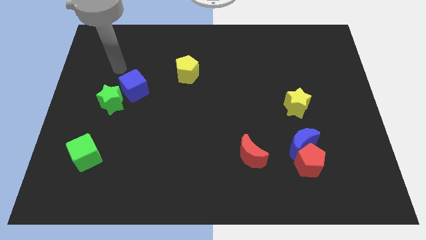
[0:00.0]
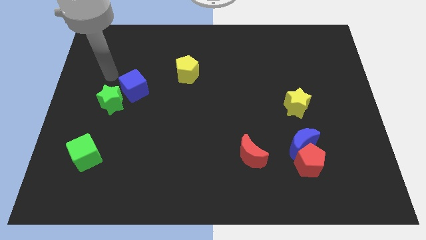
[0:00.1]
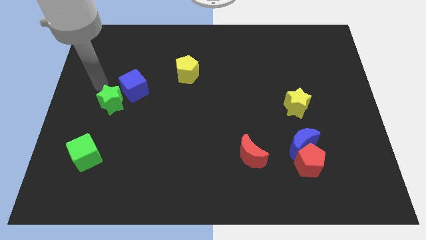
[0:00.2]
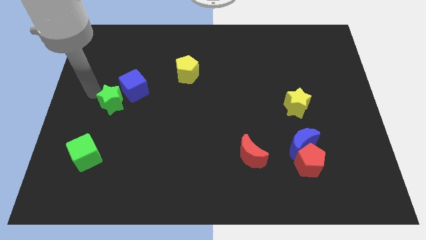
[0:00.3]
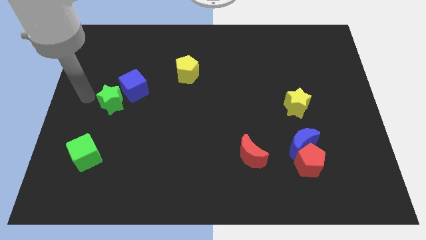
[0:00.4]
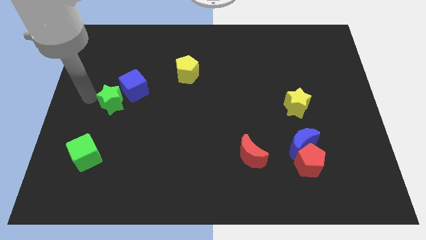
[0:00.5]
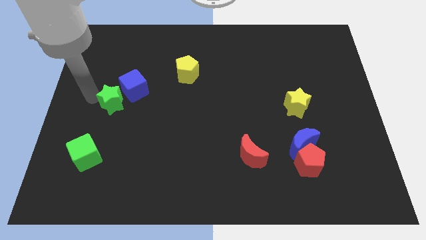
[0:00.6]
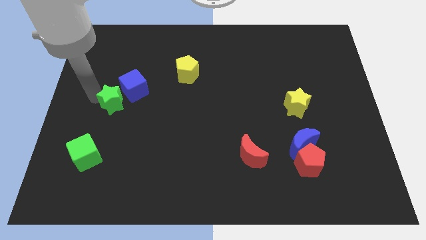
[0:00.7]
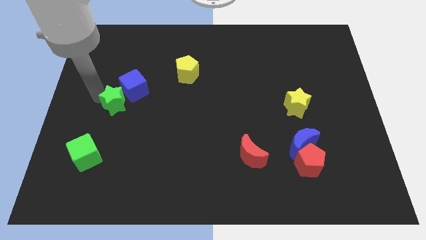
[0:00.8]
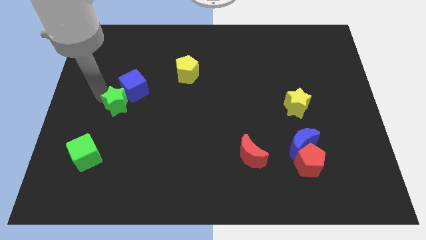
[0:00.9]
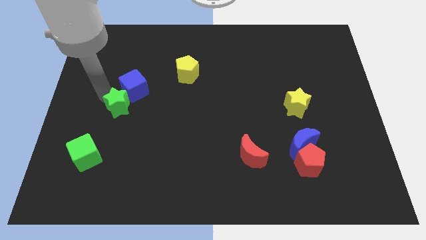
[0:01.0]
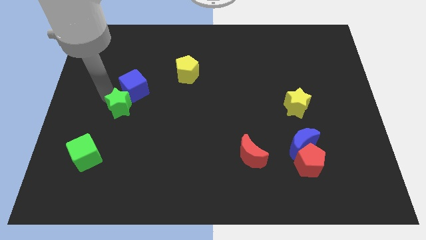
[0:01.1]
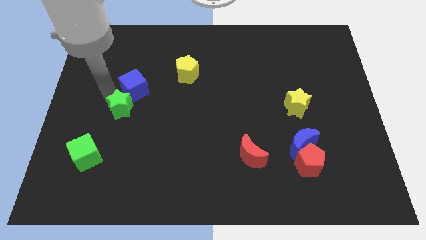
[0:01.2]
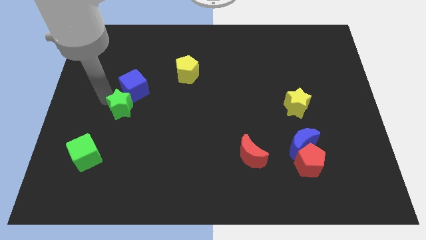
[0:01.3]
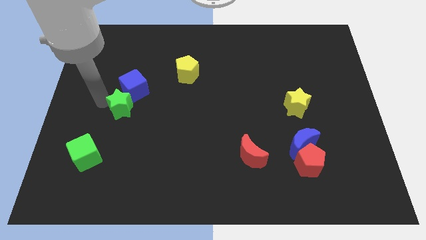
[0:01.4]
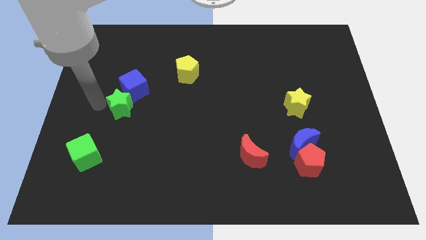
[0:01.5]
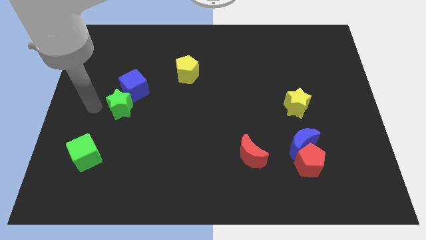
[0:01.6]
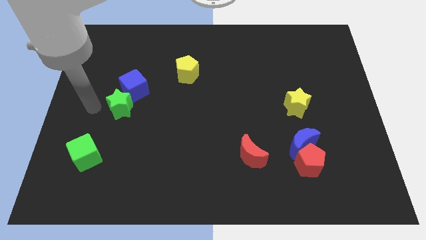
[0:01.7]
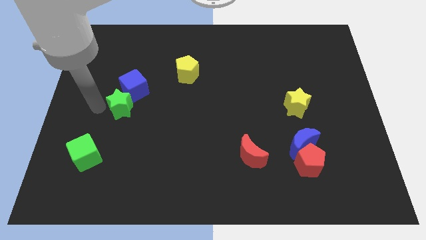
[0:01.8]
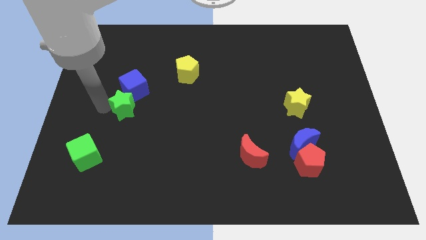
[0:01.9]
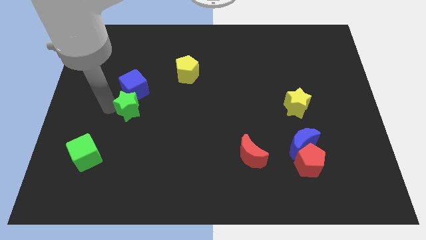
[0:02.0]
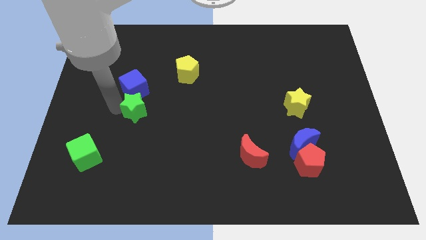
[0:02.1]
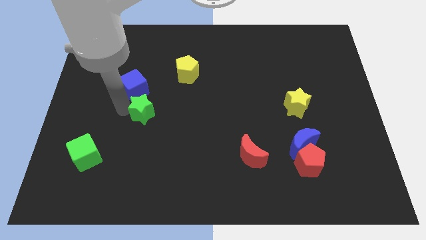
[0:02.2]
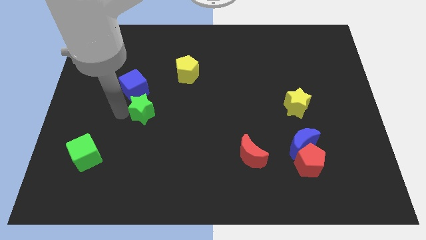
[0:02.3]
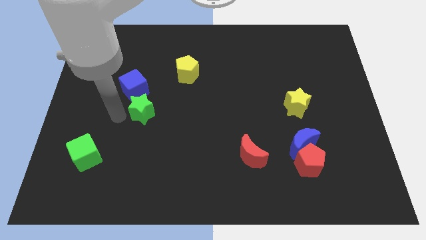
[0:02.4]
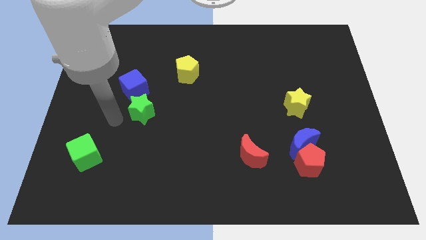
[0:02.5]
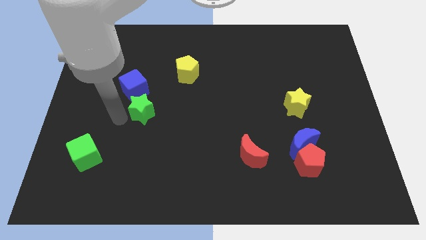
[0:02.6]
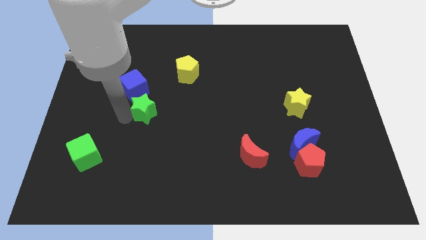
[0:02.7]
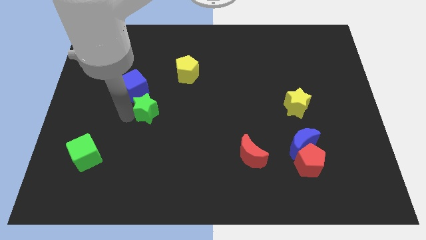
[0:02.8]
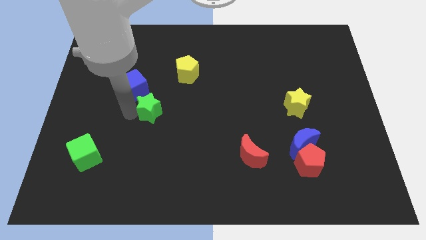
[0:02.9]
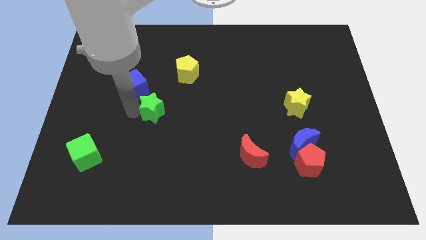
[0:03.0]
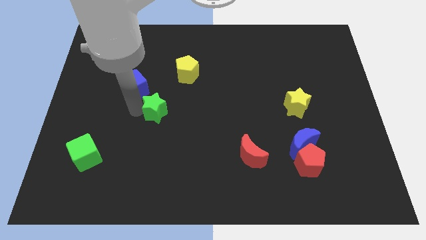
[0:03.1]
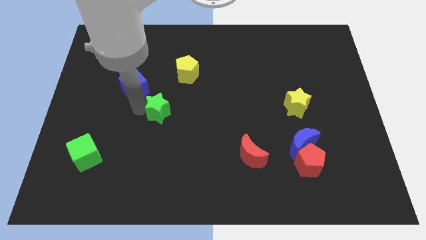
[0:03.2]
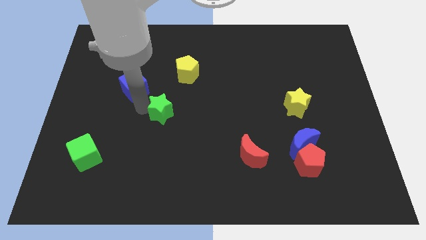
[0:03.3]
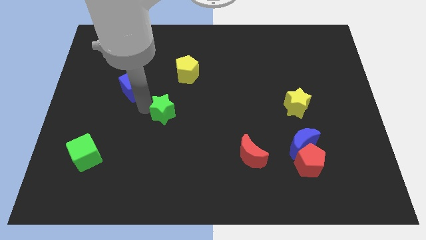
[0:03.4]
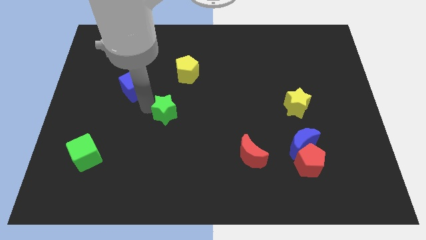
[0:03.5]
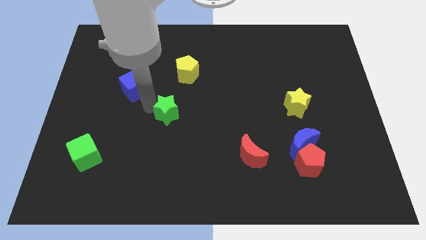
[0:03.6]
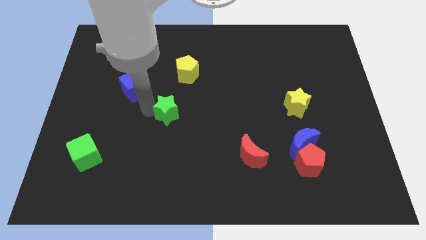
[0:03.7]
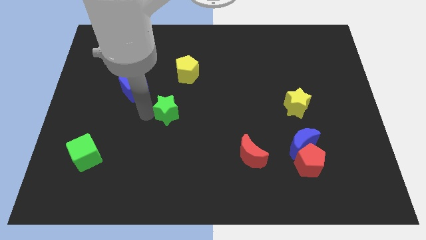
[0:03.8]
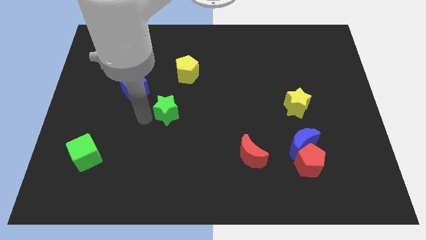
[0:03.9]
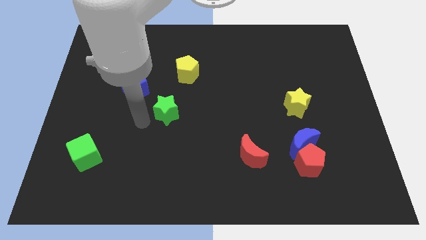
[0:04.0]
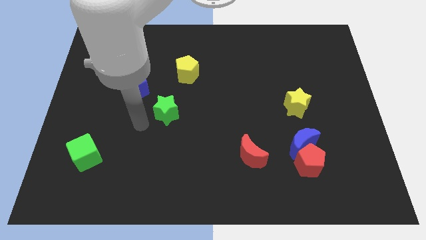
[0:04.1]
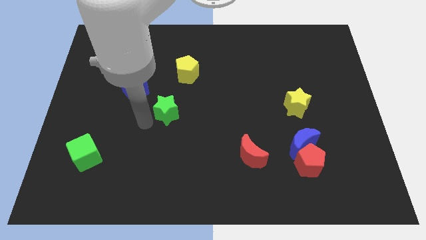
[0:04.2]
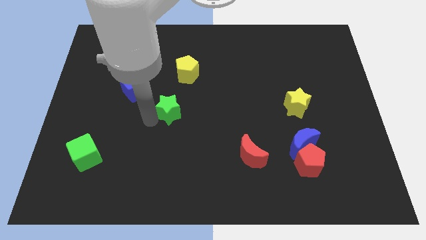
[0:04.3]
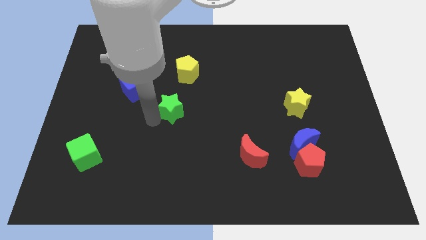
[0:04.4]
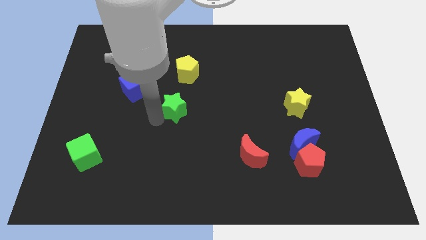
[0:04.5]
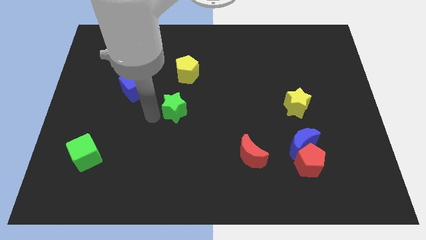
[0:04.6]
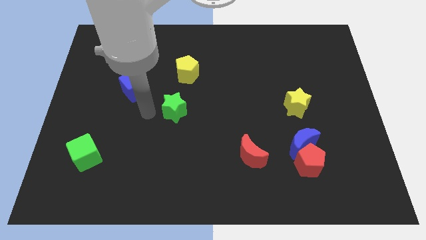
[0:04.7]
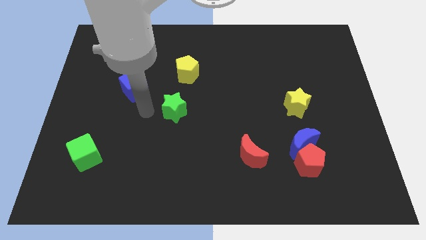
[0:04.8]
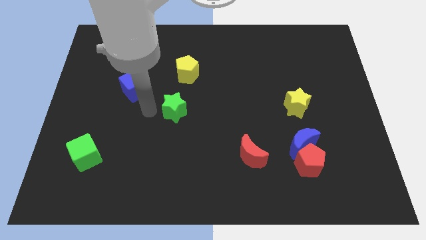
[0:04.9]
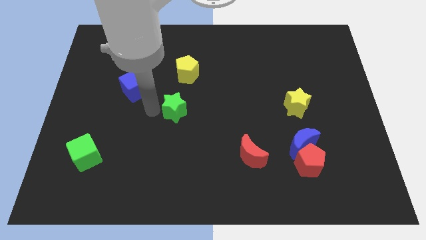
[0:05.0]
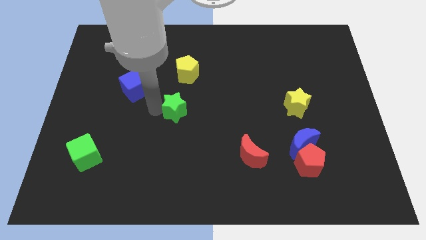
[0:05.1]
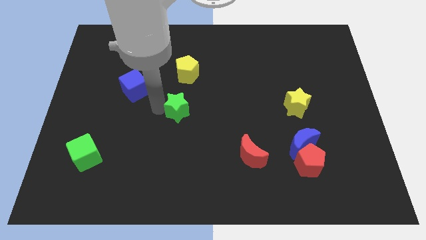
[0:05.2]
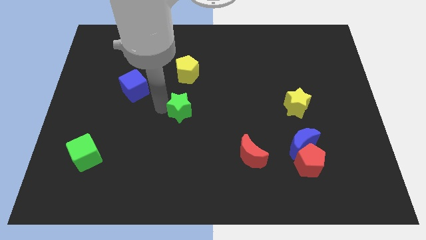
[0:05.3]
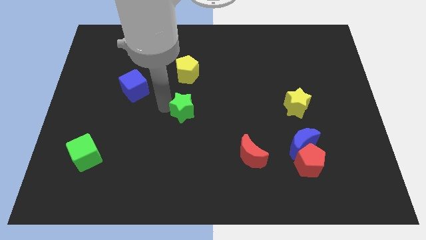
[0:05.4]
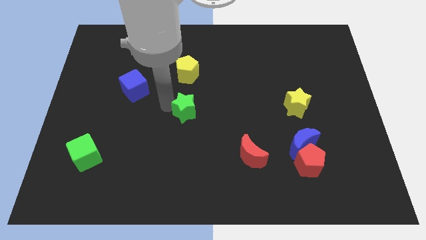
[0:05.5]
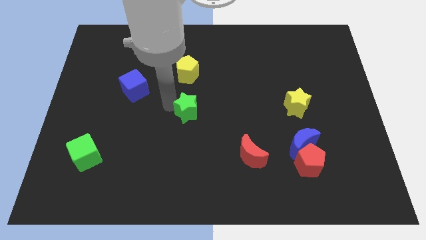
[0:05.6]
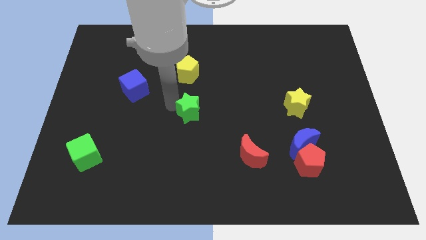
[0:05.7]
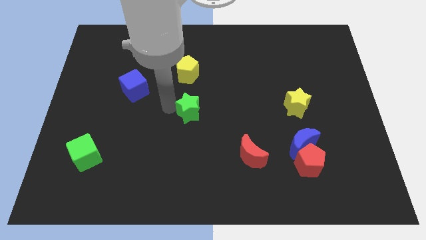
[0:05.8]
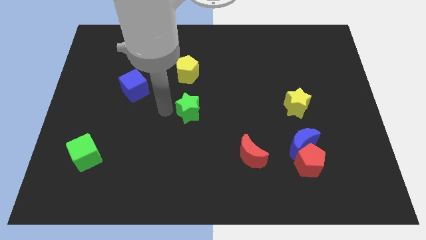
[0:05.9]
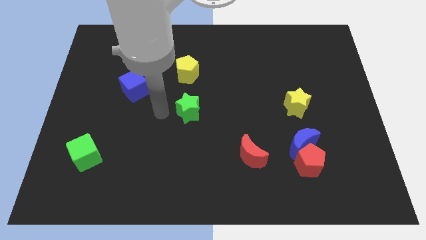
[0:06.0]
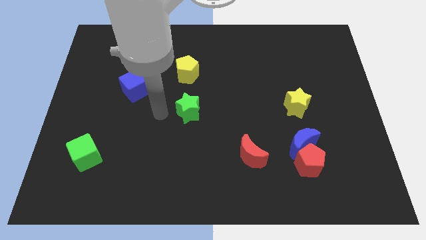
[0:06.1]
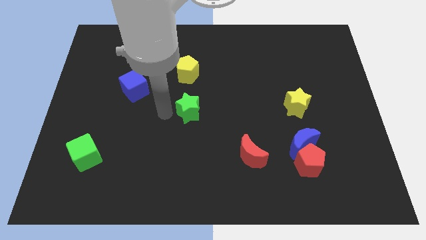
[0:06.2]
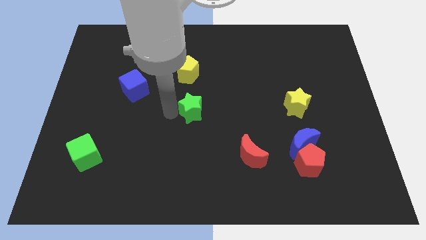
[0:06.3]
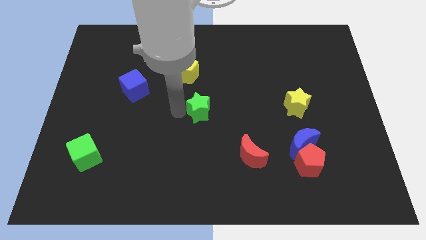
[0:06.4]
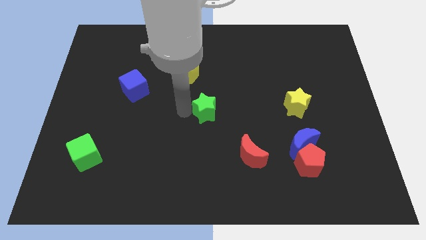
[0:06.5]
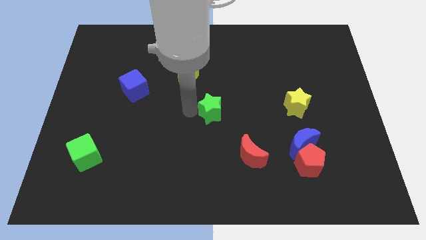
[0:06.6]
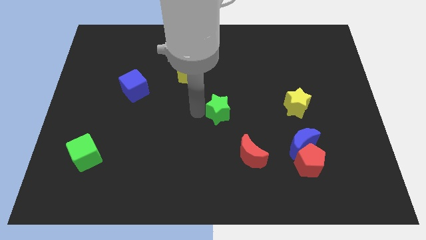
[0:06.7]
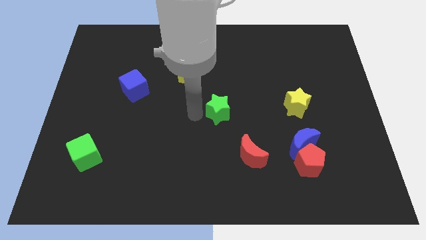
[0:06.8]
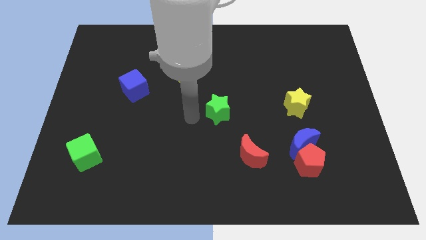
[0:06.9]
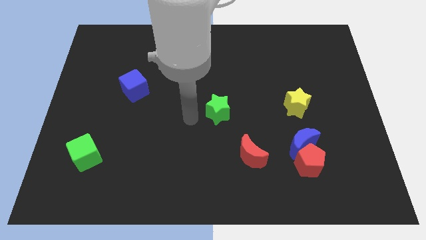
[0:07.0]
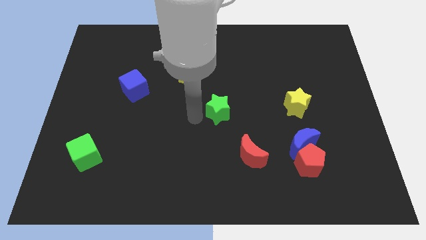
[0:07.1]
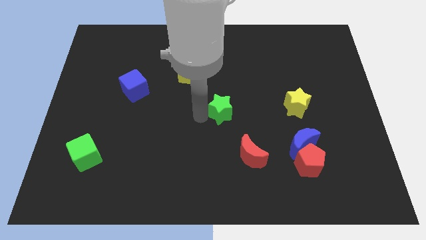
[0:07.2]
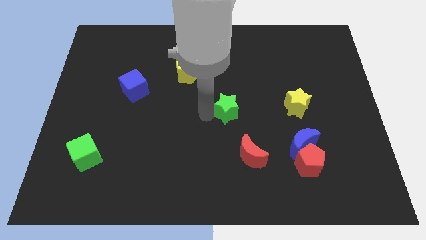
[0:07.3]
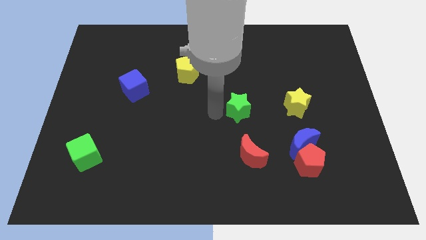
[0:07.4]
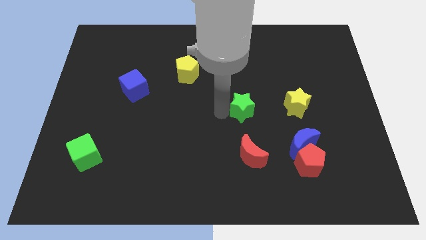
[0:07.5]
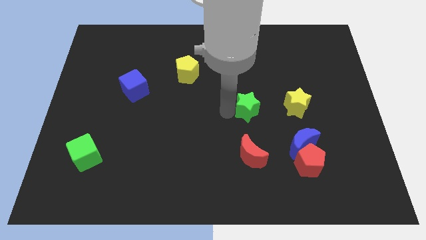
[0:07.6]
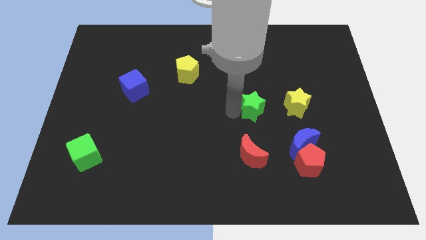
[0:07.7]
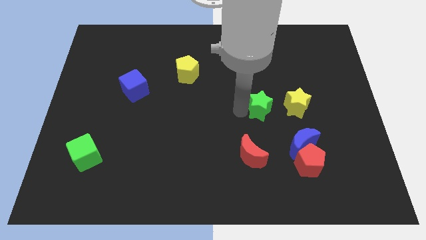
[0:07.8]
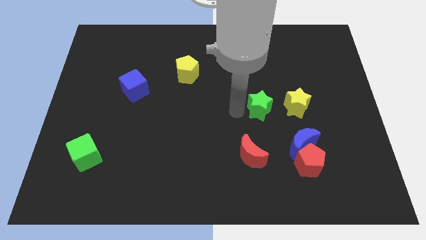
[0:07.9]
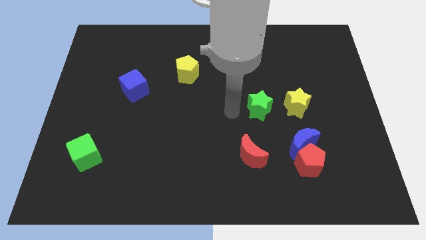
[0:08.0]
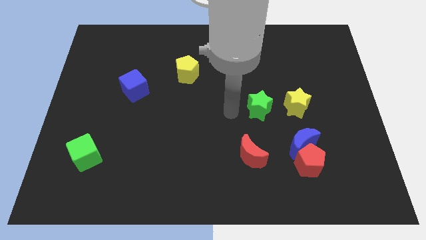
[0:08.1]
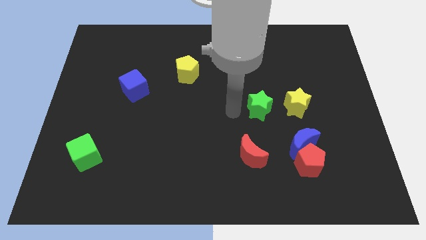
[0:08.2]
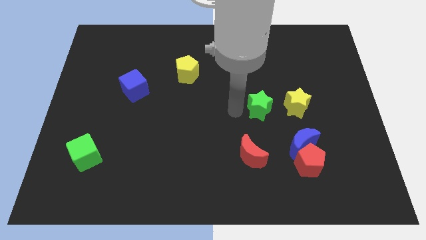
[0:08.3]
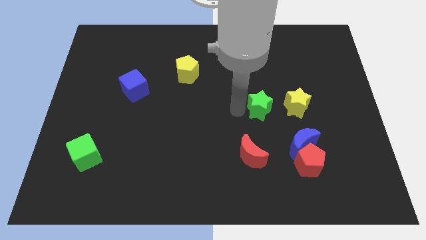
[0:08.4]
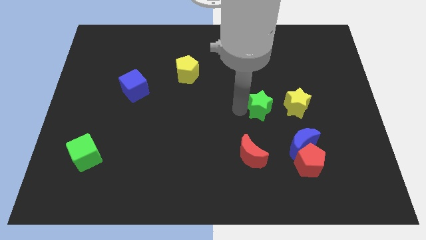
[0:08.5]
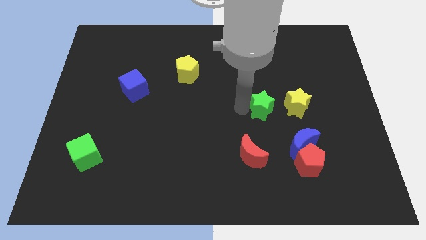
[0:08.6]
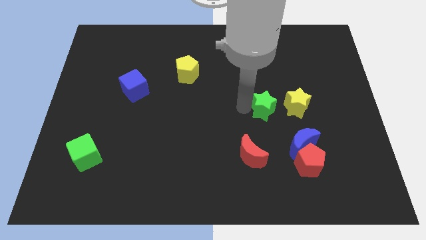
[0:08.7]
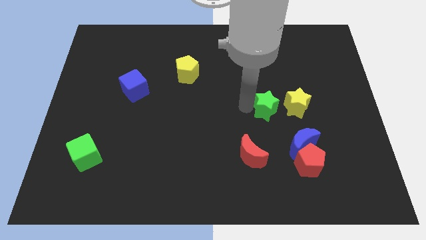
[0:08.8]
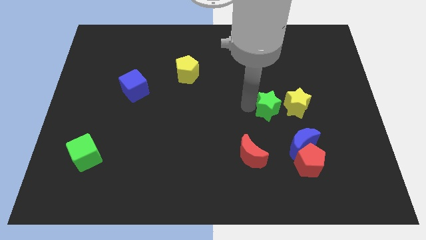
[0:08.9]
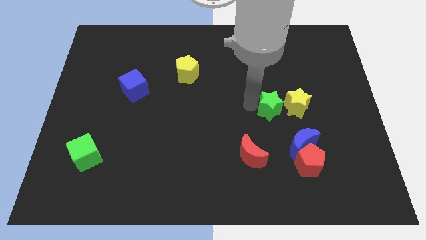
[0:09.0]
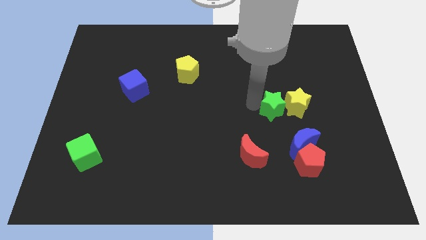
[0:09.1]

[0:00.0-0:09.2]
move the green star to the yellow star
